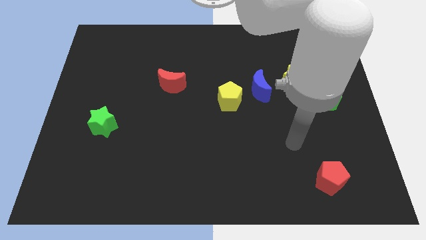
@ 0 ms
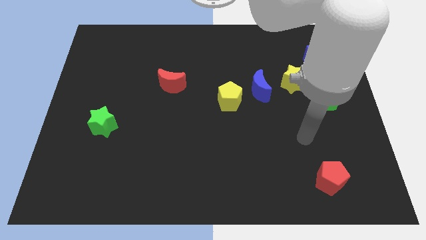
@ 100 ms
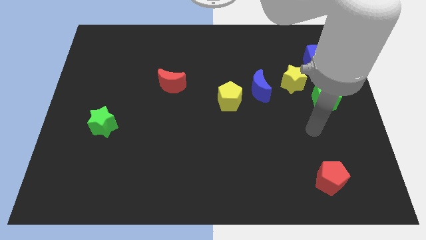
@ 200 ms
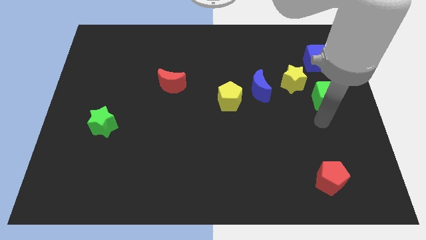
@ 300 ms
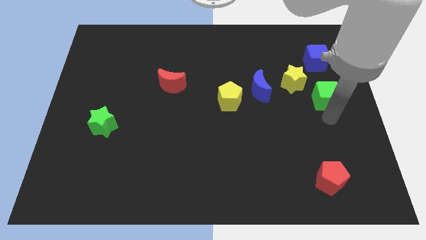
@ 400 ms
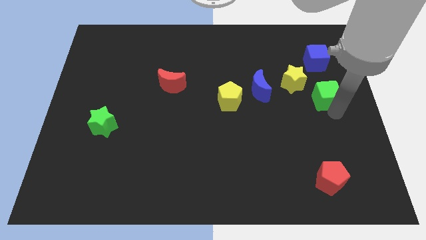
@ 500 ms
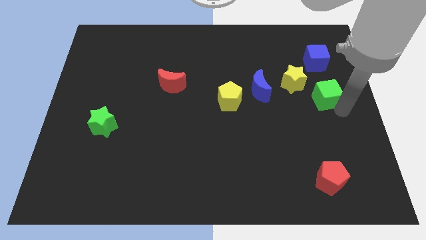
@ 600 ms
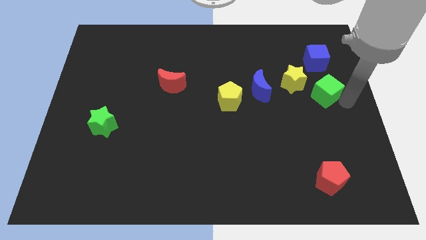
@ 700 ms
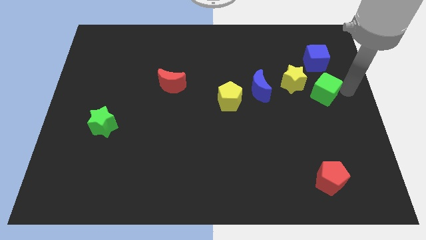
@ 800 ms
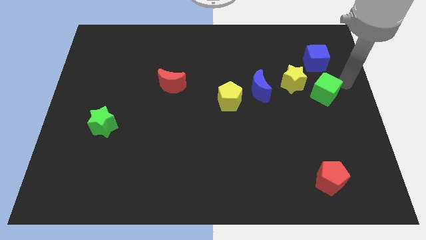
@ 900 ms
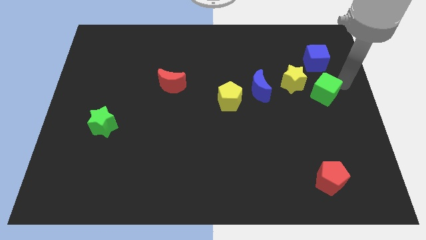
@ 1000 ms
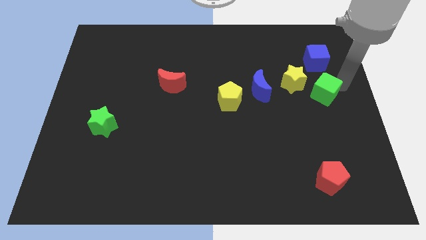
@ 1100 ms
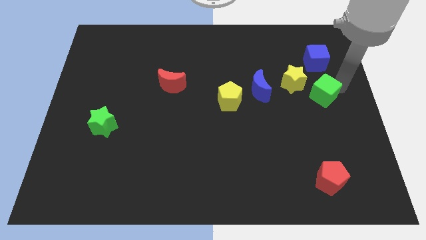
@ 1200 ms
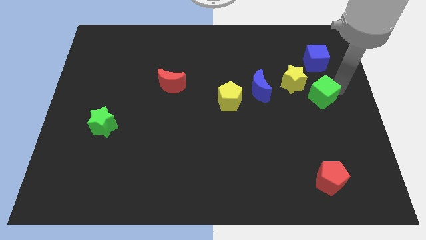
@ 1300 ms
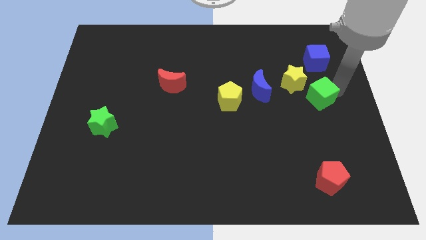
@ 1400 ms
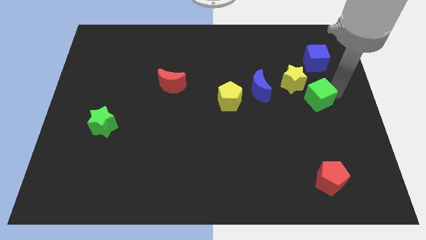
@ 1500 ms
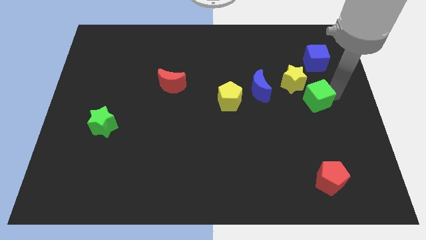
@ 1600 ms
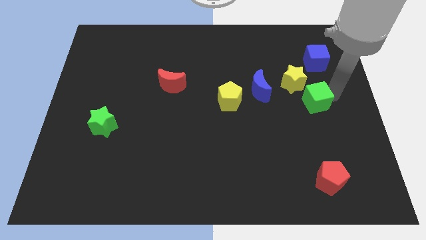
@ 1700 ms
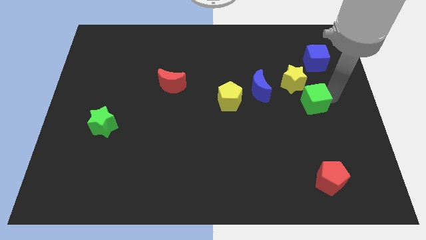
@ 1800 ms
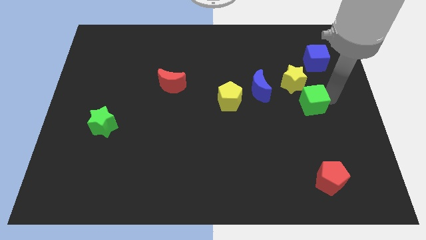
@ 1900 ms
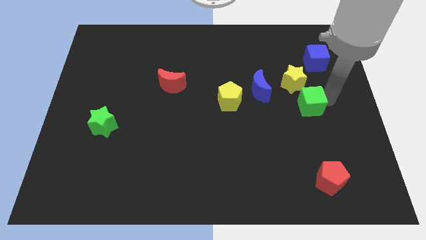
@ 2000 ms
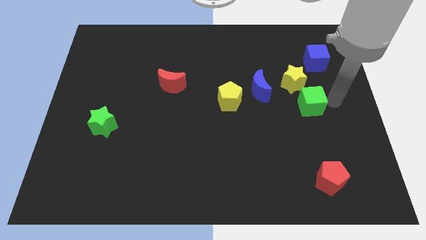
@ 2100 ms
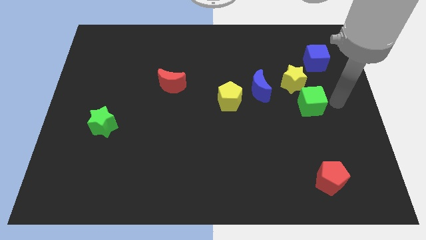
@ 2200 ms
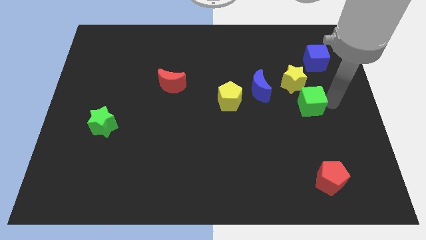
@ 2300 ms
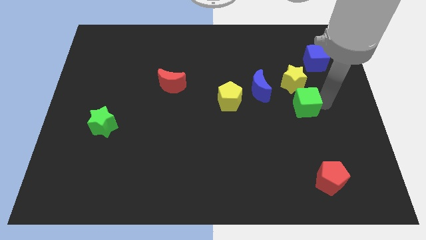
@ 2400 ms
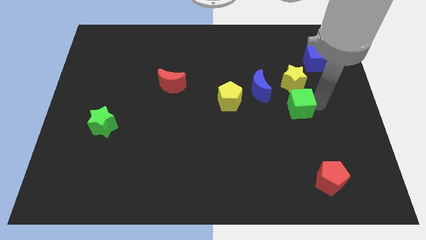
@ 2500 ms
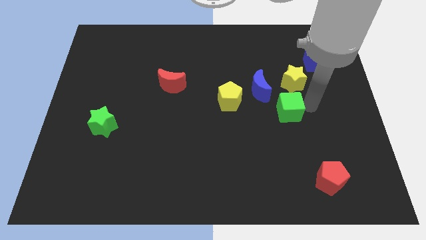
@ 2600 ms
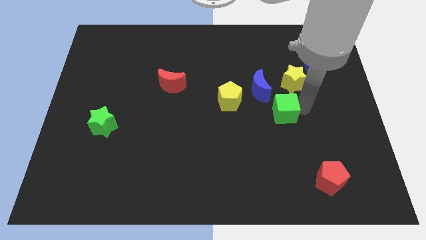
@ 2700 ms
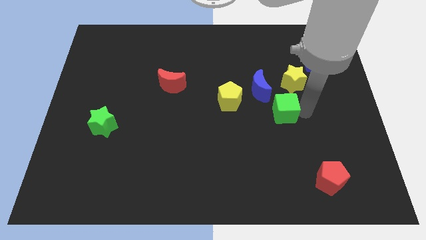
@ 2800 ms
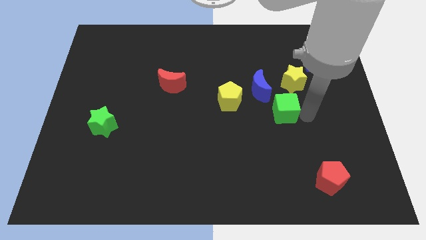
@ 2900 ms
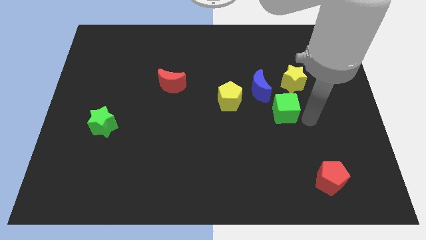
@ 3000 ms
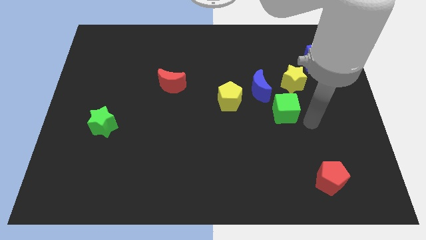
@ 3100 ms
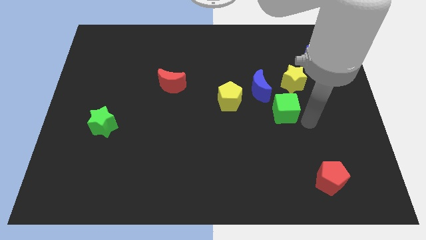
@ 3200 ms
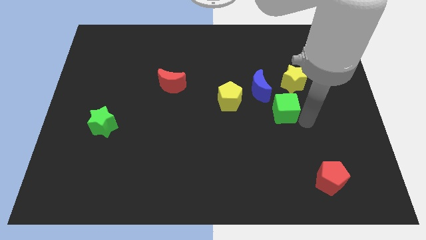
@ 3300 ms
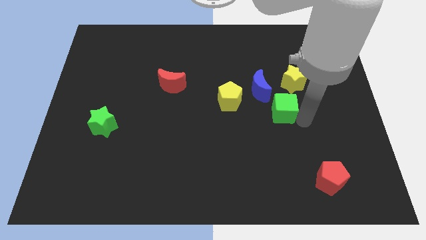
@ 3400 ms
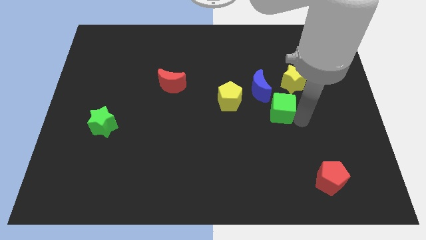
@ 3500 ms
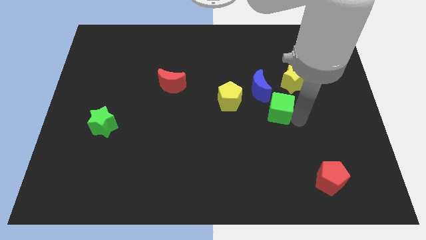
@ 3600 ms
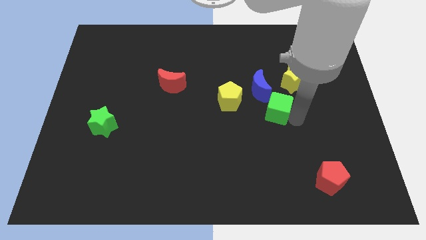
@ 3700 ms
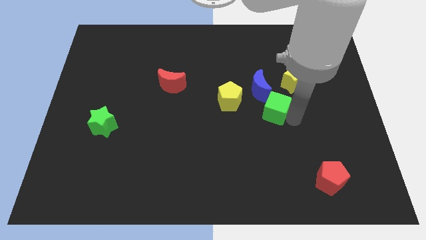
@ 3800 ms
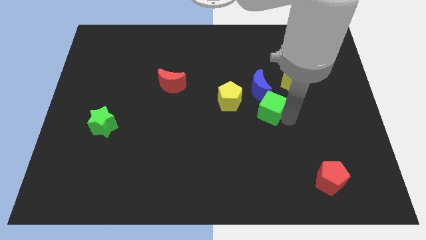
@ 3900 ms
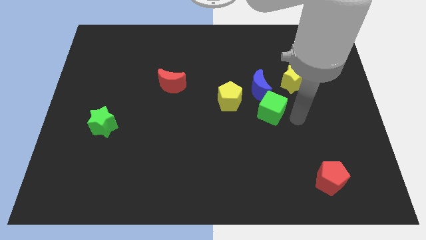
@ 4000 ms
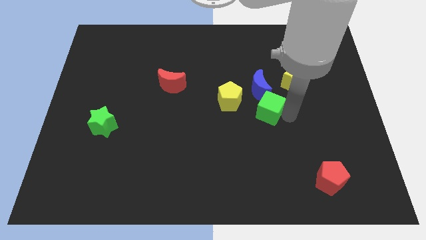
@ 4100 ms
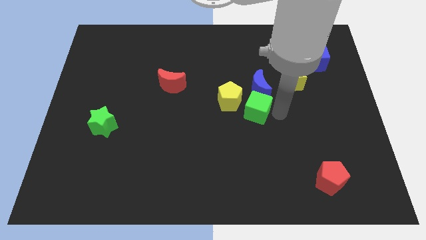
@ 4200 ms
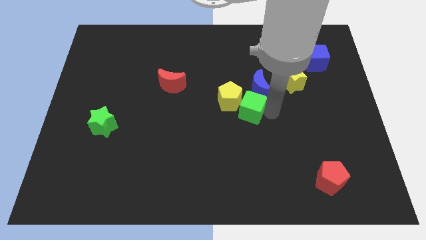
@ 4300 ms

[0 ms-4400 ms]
move the green cube next to the yellow pentagon

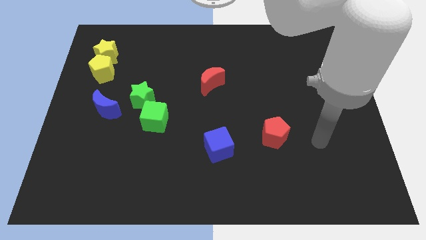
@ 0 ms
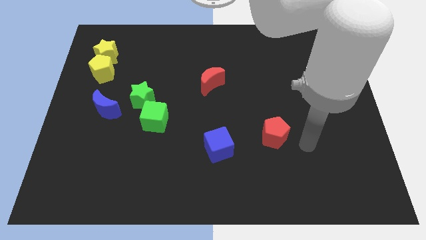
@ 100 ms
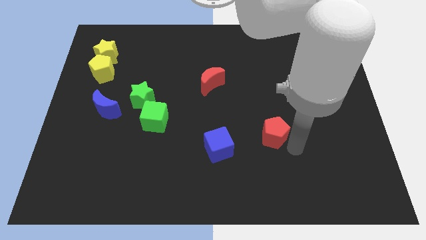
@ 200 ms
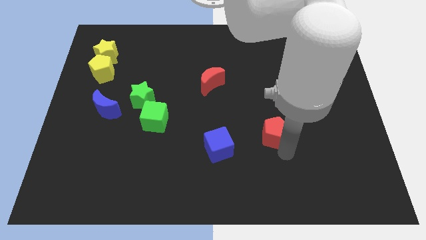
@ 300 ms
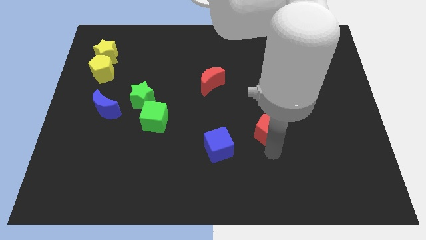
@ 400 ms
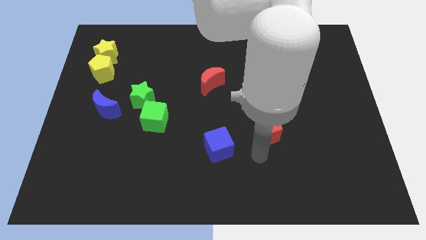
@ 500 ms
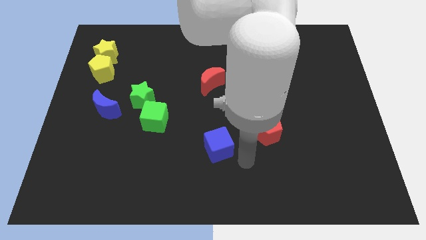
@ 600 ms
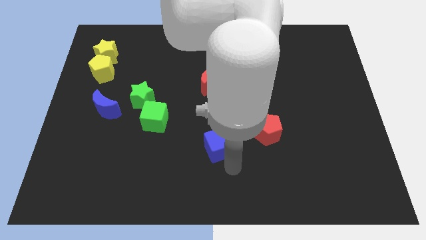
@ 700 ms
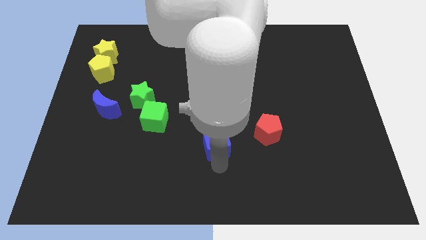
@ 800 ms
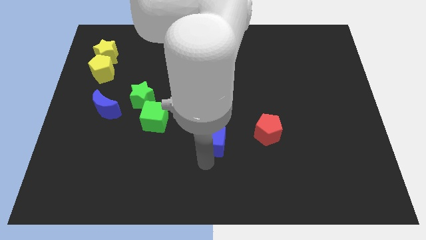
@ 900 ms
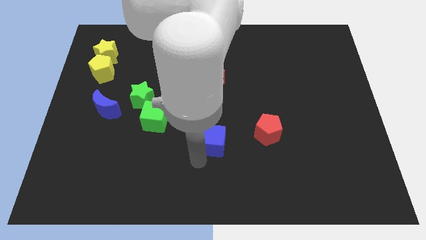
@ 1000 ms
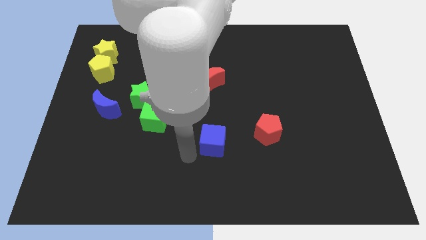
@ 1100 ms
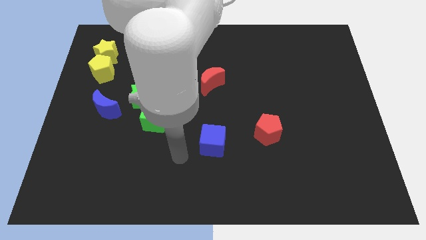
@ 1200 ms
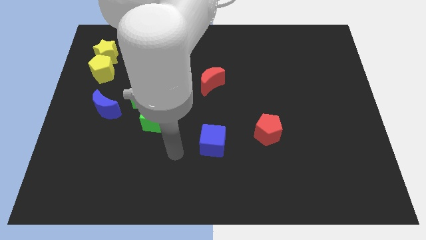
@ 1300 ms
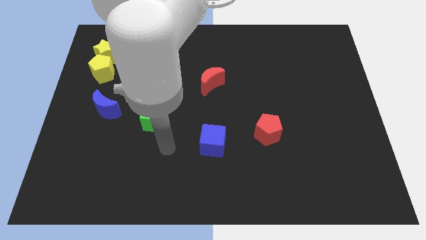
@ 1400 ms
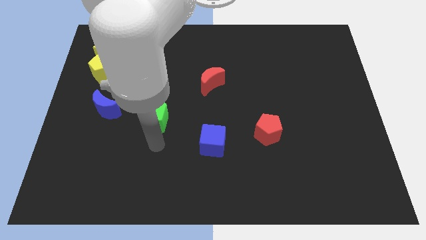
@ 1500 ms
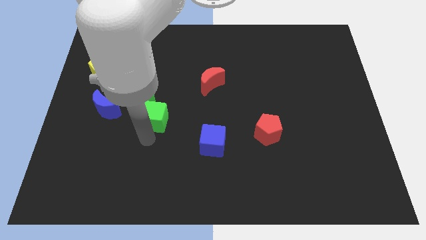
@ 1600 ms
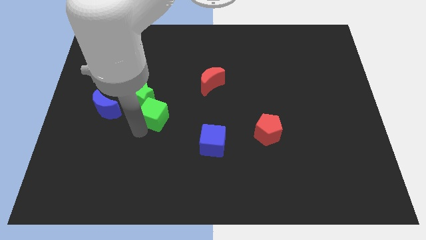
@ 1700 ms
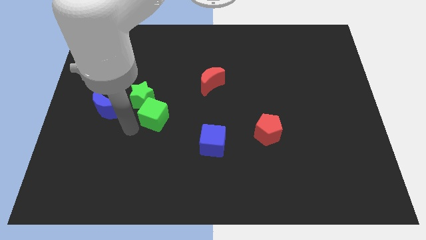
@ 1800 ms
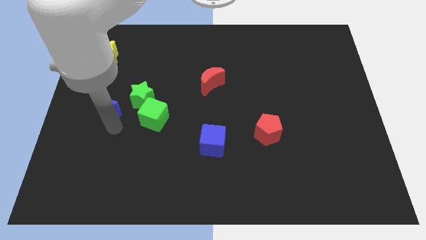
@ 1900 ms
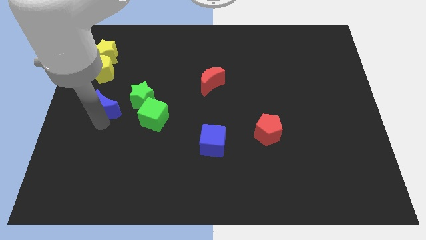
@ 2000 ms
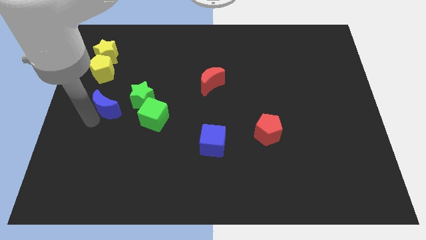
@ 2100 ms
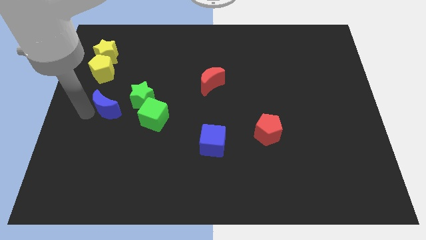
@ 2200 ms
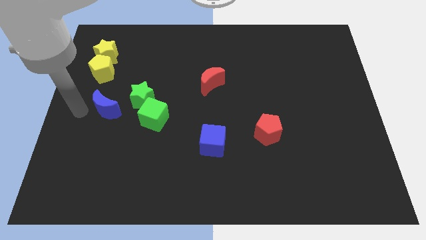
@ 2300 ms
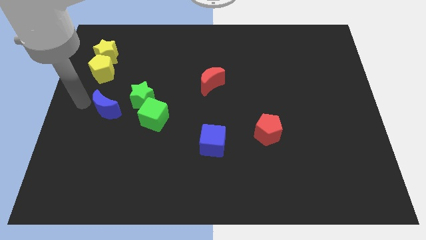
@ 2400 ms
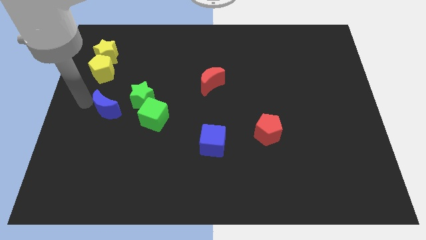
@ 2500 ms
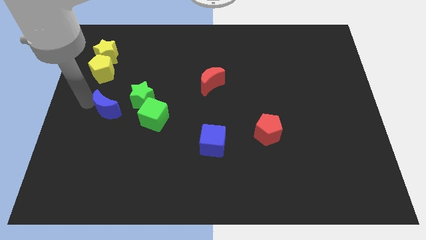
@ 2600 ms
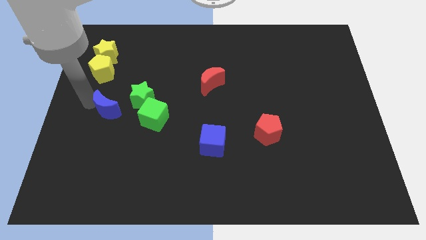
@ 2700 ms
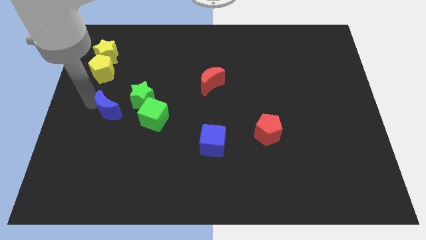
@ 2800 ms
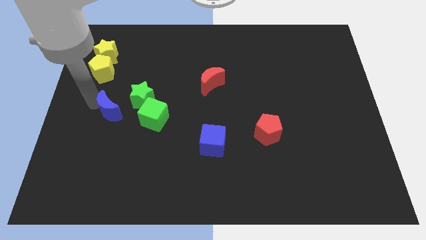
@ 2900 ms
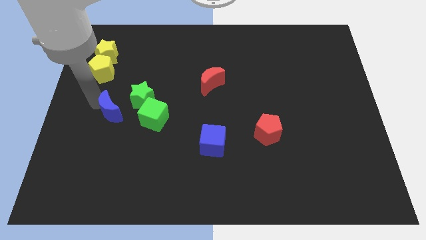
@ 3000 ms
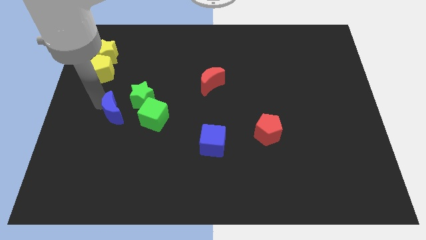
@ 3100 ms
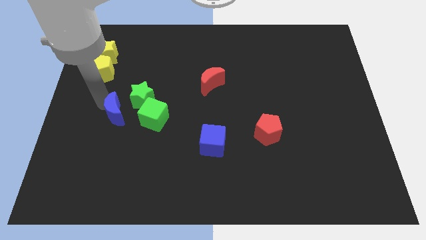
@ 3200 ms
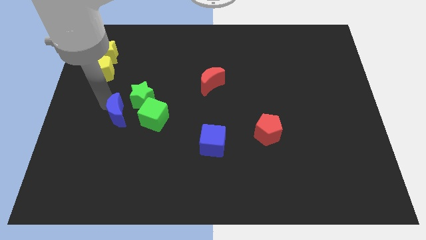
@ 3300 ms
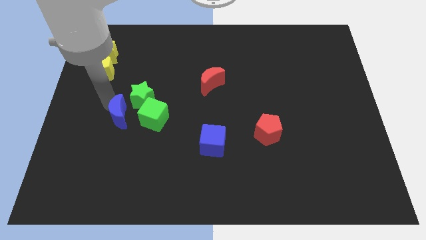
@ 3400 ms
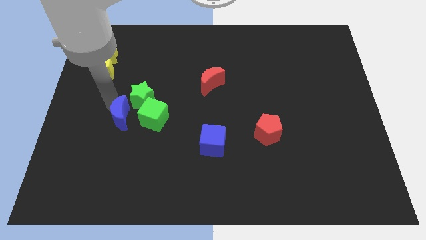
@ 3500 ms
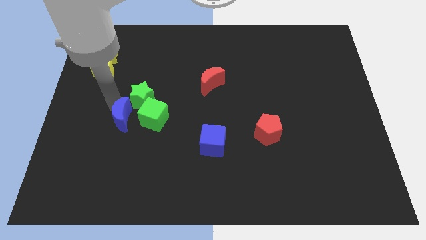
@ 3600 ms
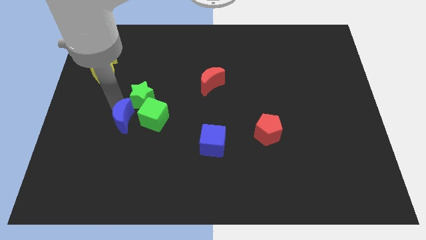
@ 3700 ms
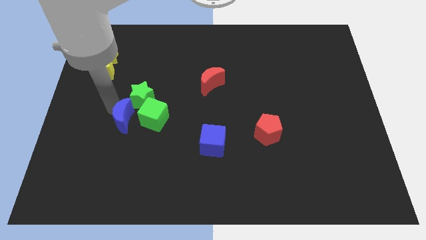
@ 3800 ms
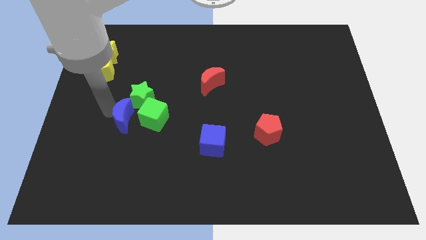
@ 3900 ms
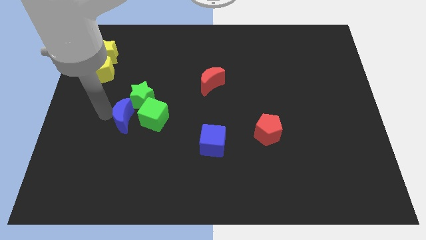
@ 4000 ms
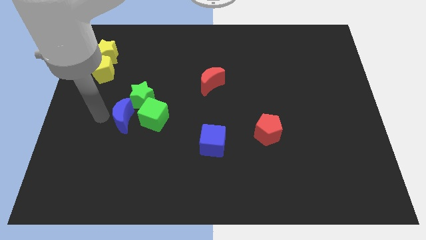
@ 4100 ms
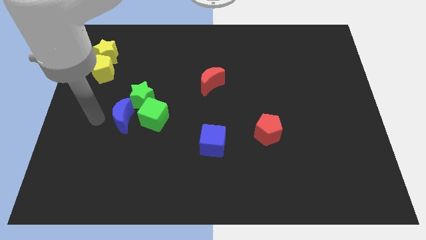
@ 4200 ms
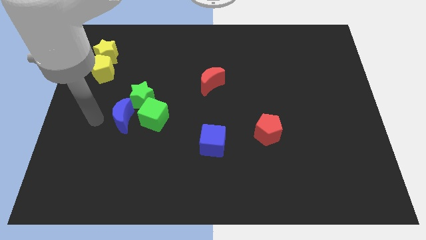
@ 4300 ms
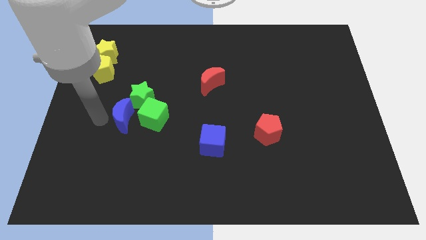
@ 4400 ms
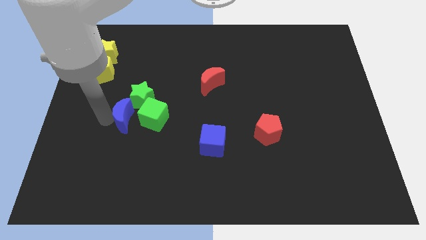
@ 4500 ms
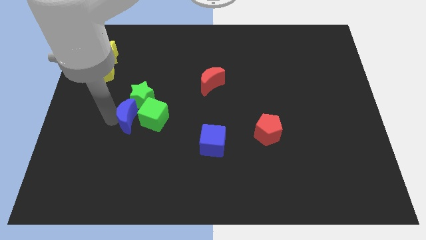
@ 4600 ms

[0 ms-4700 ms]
push the blue moon towards the green cube
